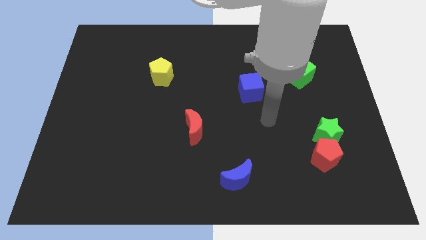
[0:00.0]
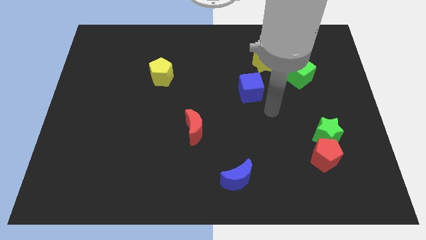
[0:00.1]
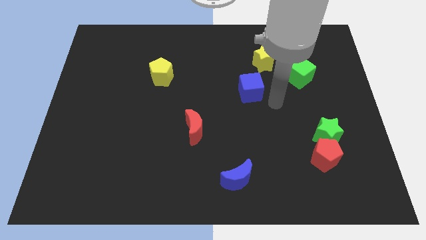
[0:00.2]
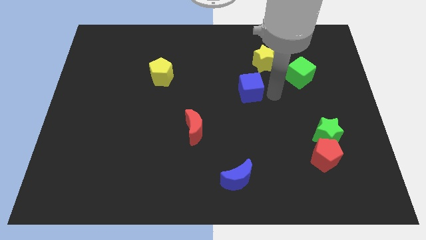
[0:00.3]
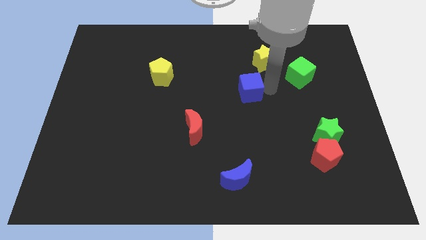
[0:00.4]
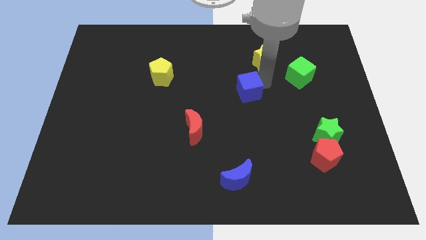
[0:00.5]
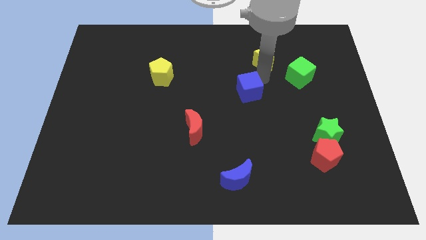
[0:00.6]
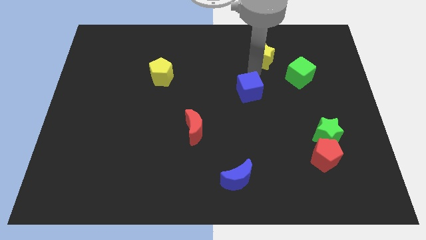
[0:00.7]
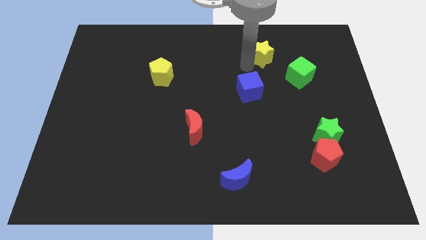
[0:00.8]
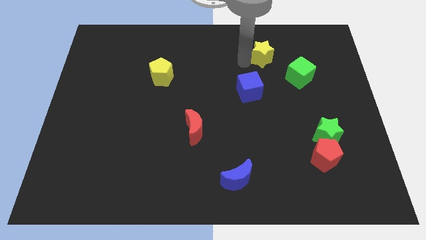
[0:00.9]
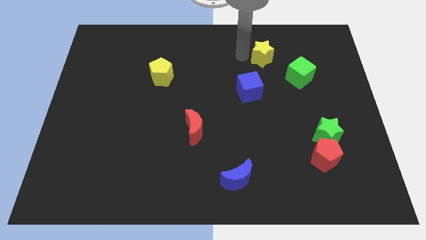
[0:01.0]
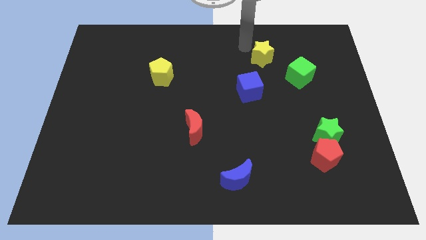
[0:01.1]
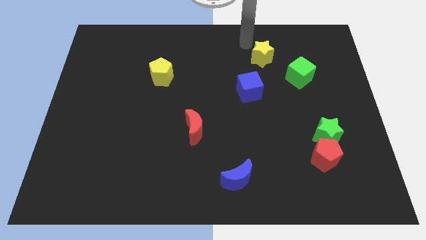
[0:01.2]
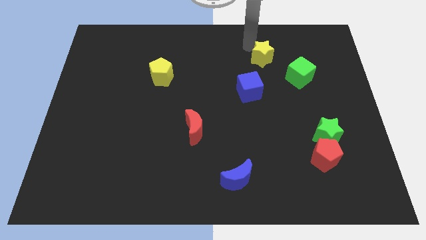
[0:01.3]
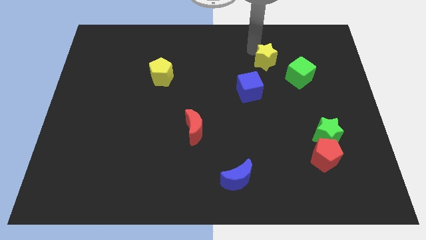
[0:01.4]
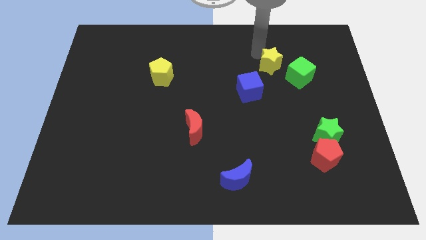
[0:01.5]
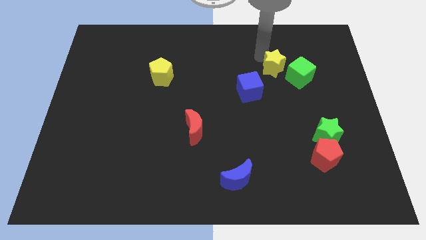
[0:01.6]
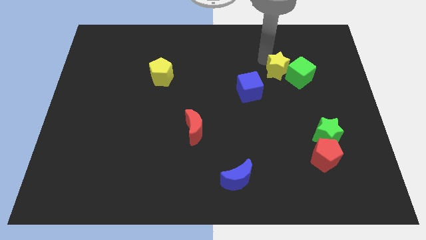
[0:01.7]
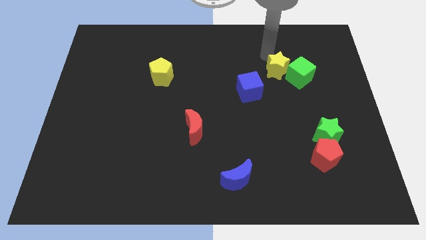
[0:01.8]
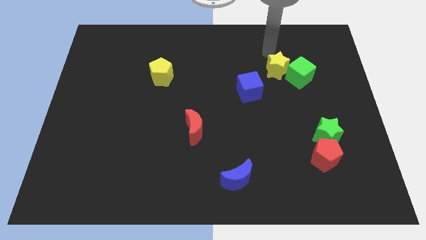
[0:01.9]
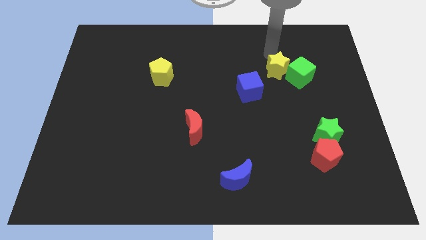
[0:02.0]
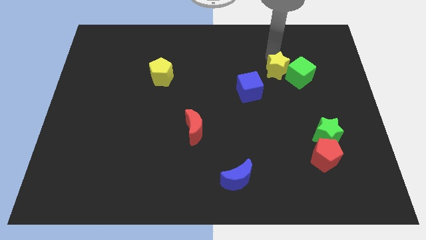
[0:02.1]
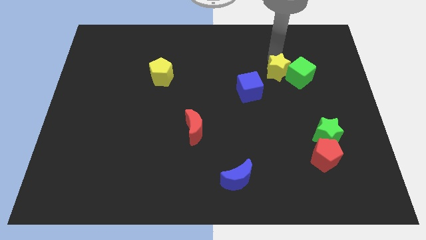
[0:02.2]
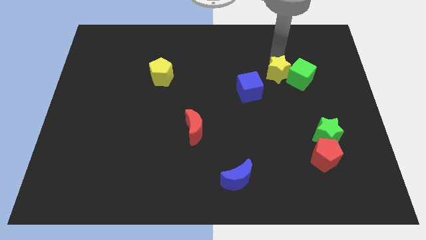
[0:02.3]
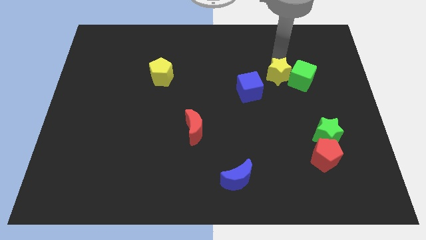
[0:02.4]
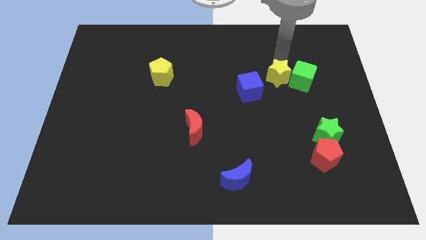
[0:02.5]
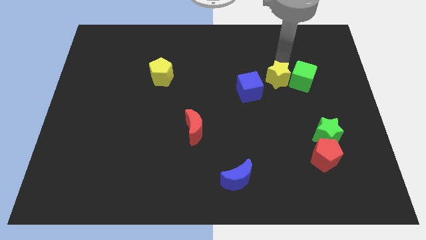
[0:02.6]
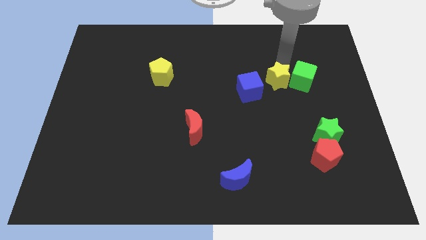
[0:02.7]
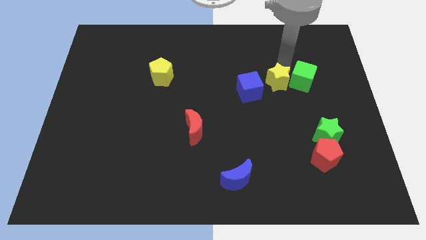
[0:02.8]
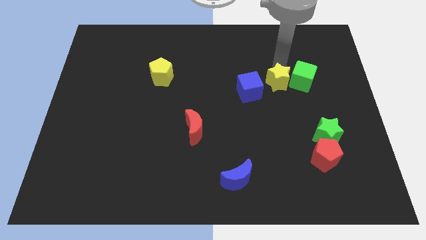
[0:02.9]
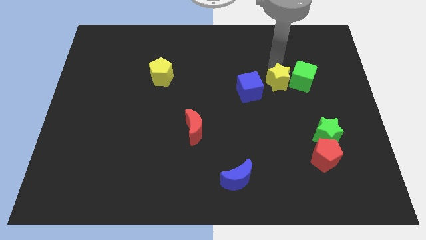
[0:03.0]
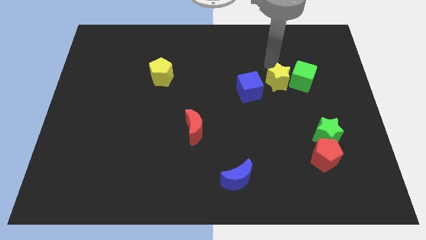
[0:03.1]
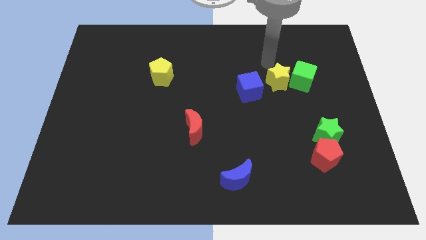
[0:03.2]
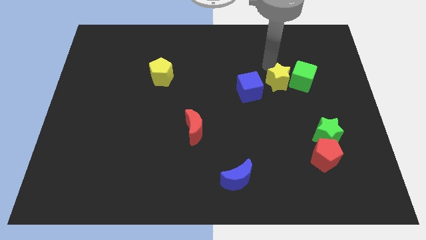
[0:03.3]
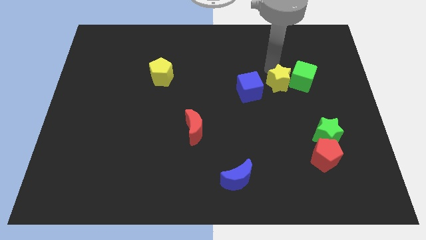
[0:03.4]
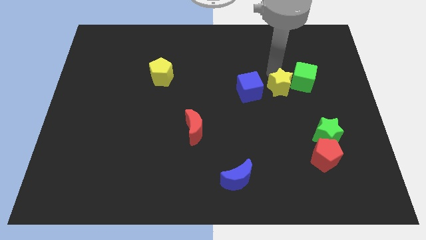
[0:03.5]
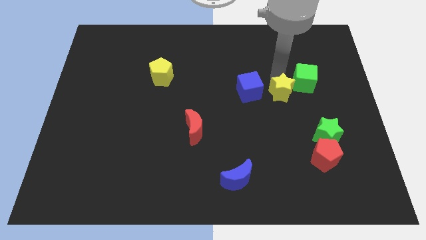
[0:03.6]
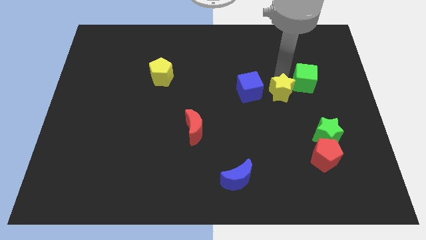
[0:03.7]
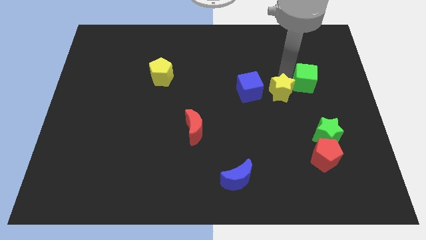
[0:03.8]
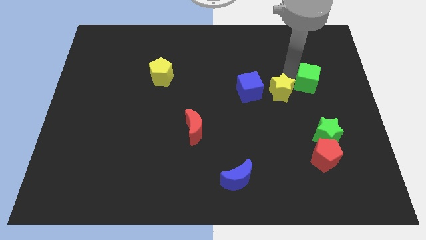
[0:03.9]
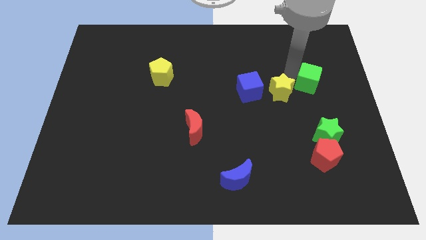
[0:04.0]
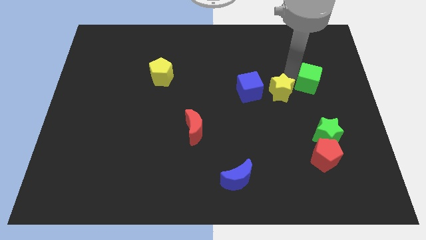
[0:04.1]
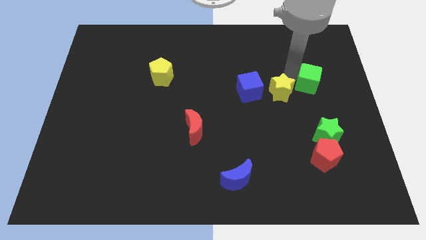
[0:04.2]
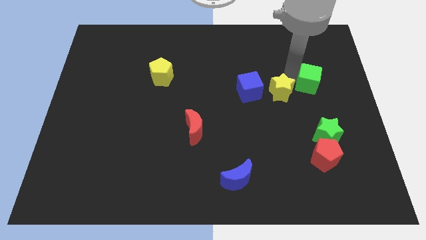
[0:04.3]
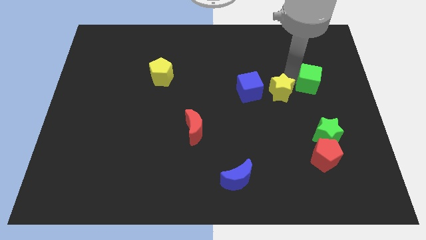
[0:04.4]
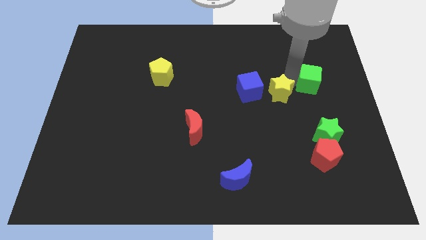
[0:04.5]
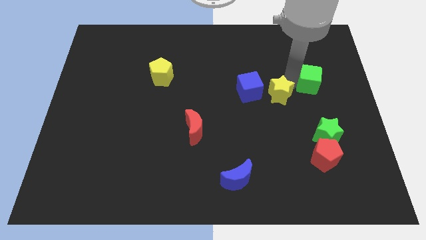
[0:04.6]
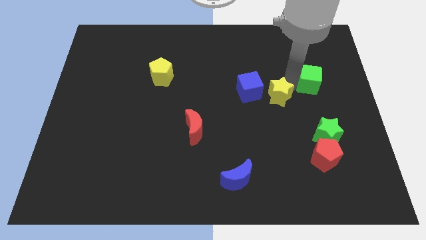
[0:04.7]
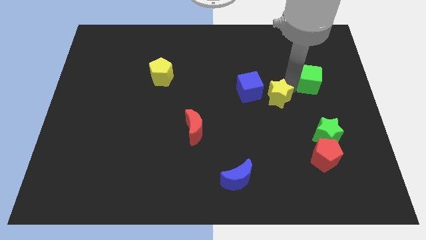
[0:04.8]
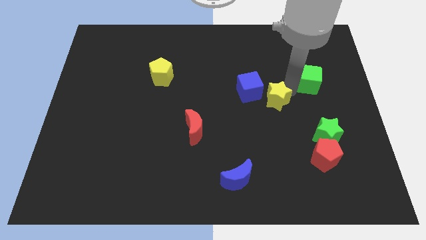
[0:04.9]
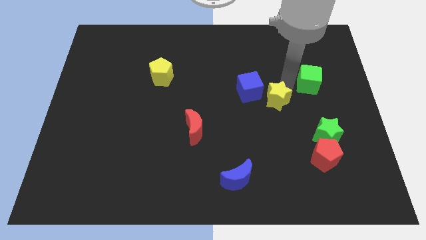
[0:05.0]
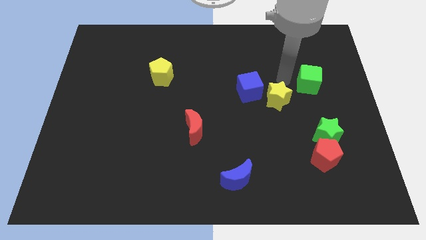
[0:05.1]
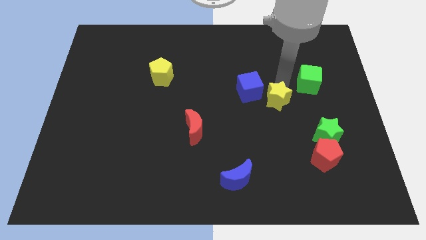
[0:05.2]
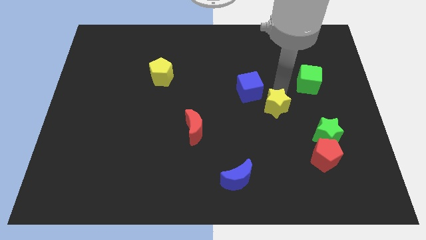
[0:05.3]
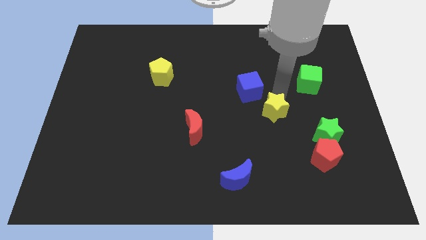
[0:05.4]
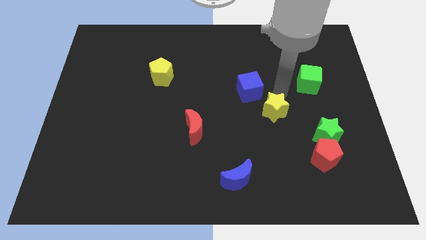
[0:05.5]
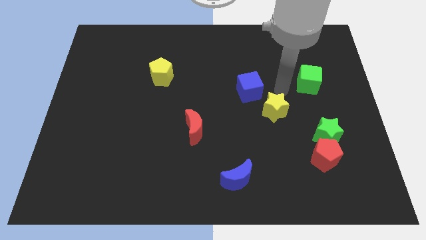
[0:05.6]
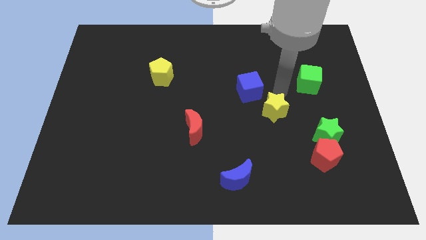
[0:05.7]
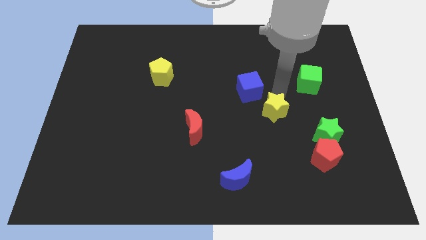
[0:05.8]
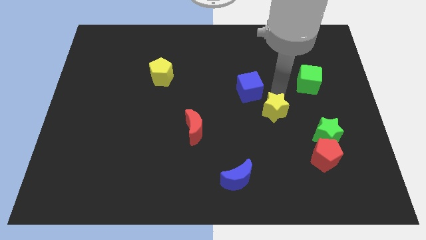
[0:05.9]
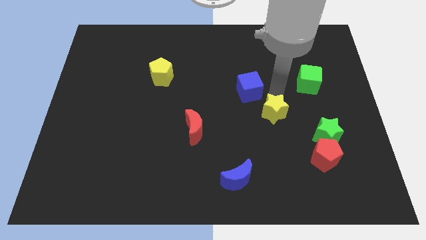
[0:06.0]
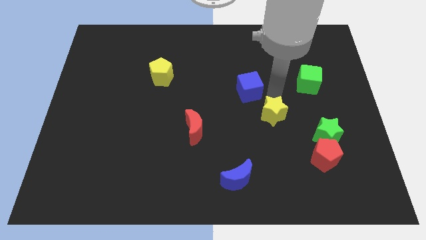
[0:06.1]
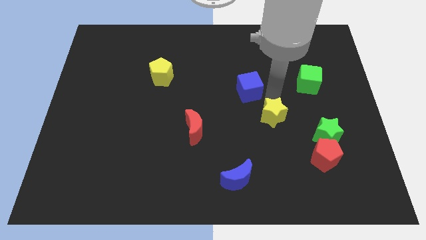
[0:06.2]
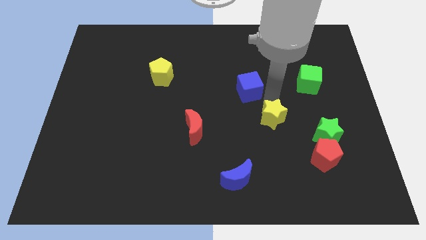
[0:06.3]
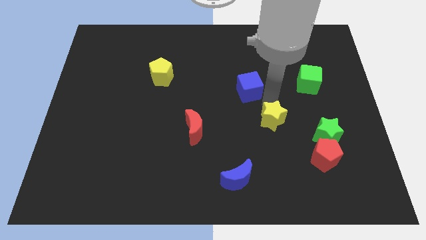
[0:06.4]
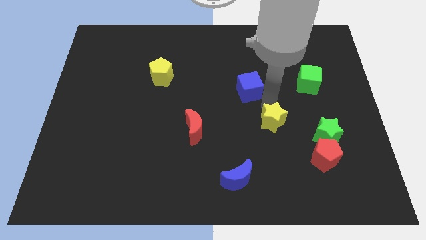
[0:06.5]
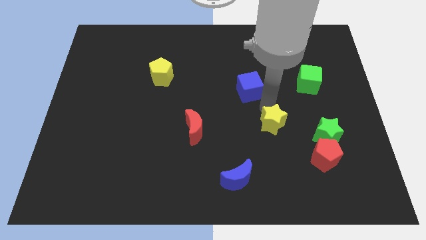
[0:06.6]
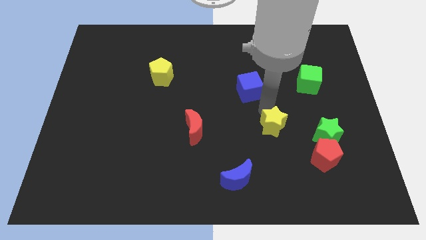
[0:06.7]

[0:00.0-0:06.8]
move the yellow star downwards

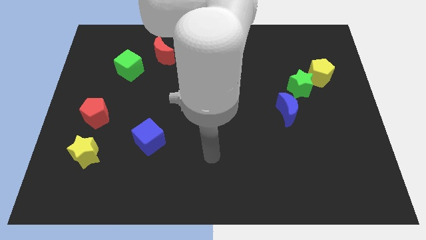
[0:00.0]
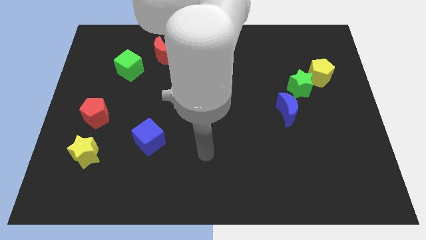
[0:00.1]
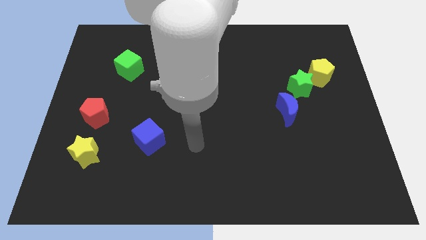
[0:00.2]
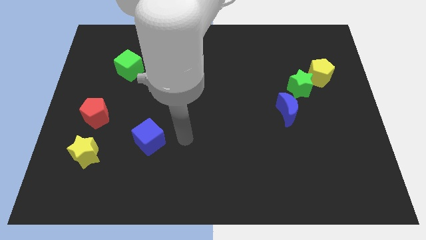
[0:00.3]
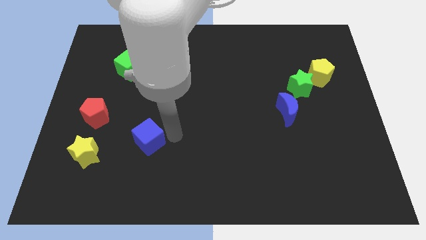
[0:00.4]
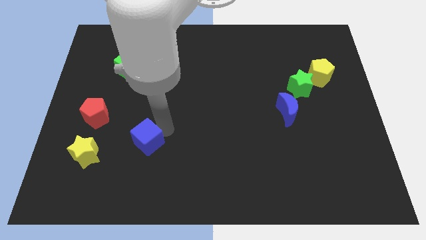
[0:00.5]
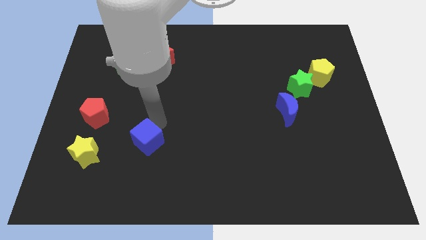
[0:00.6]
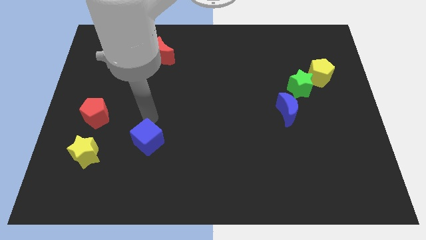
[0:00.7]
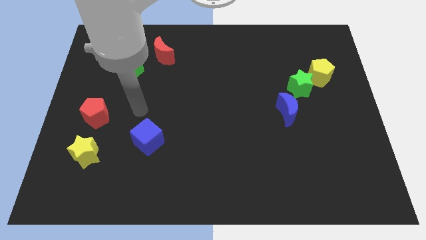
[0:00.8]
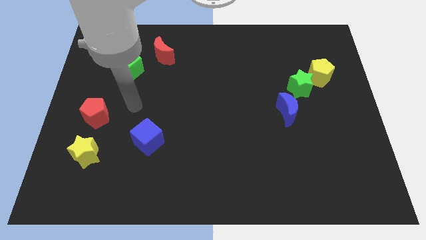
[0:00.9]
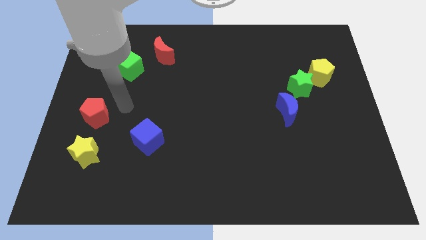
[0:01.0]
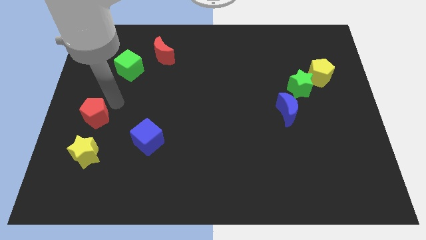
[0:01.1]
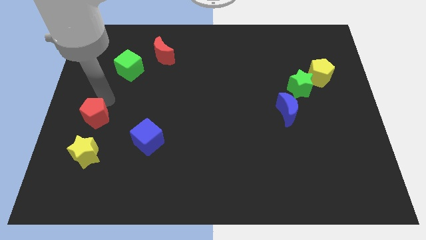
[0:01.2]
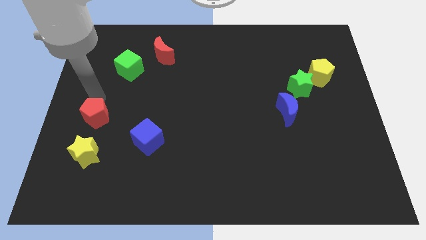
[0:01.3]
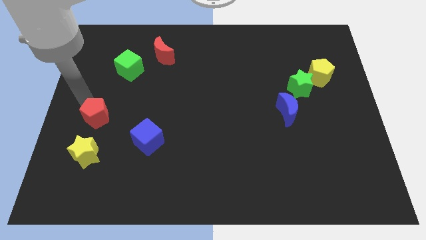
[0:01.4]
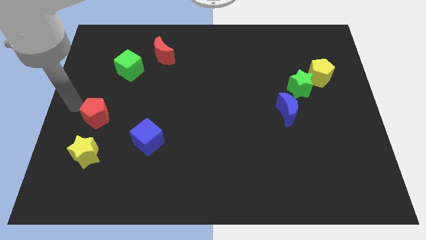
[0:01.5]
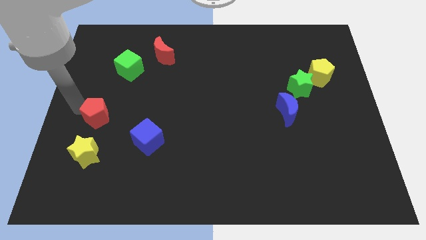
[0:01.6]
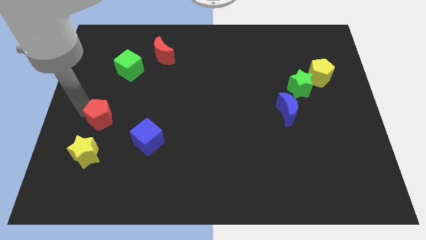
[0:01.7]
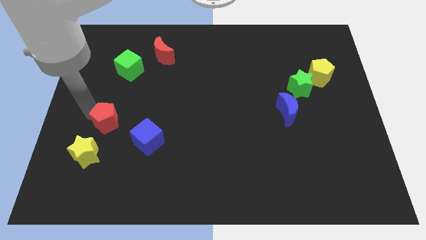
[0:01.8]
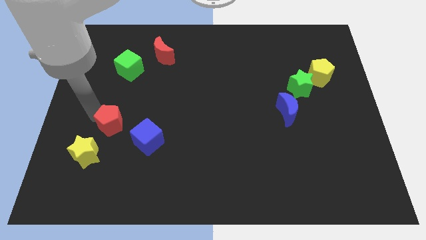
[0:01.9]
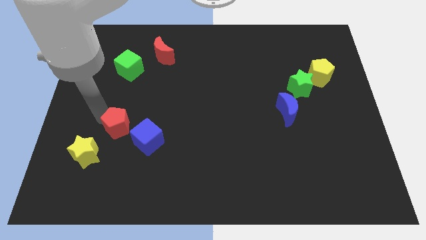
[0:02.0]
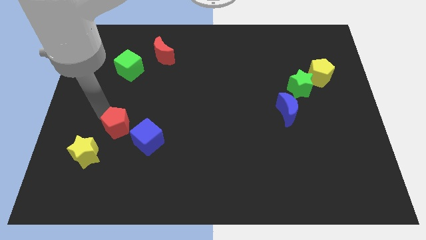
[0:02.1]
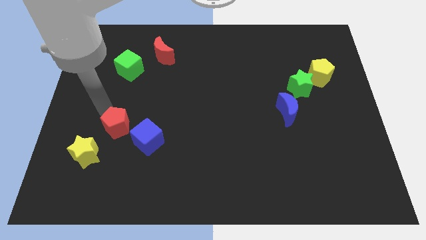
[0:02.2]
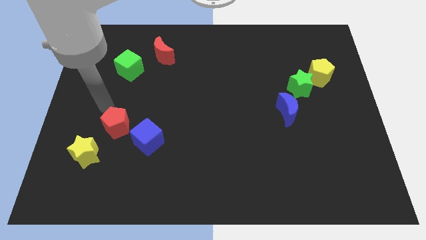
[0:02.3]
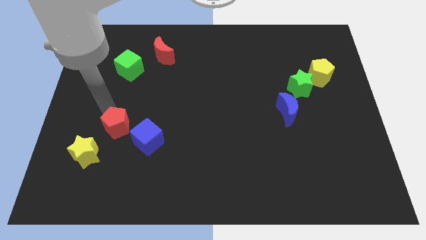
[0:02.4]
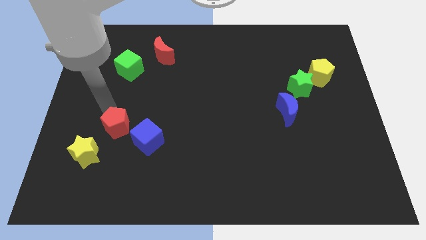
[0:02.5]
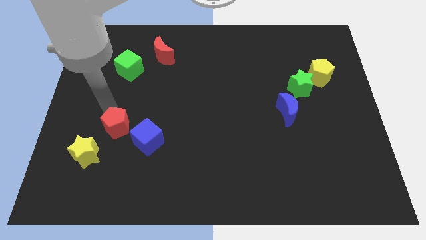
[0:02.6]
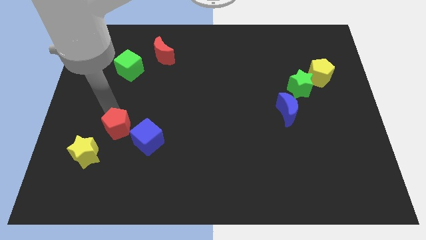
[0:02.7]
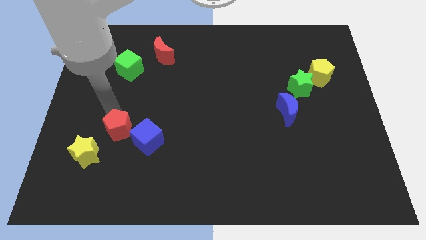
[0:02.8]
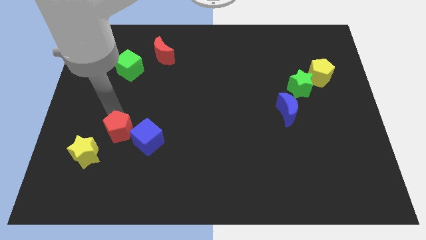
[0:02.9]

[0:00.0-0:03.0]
push the red pentagon down and right slightly
